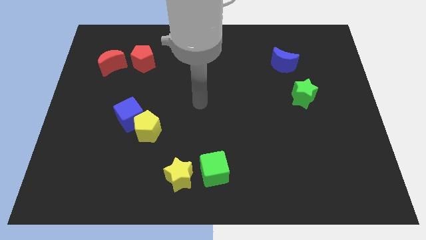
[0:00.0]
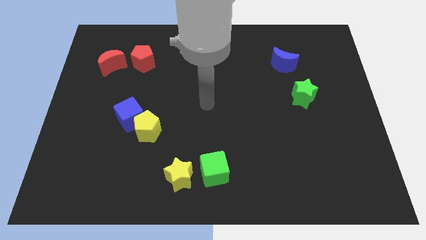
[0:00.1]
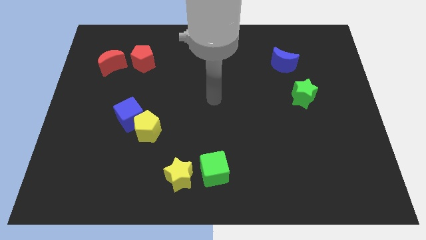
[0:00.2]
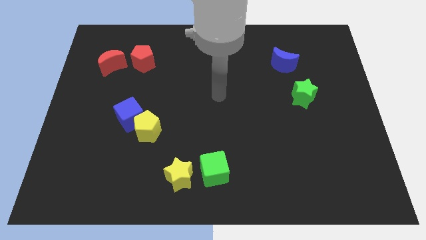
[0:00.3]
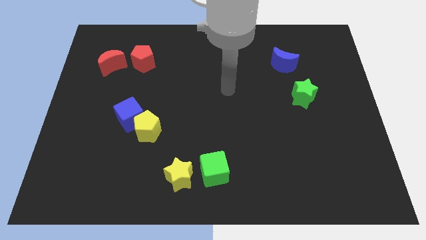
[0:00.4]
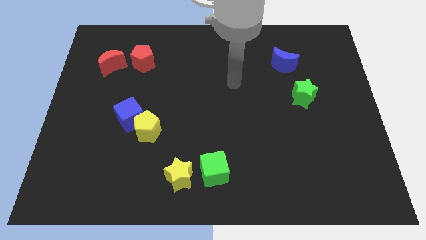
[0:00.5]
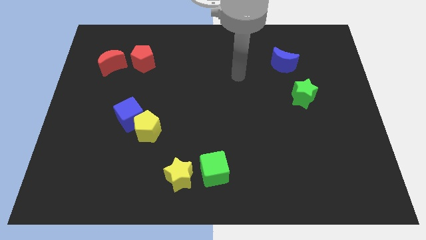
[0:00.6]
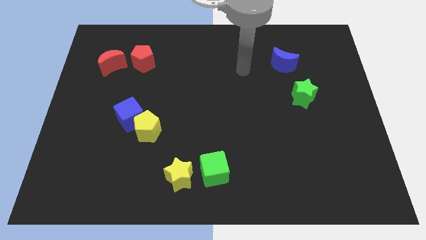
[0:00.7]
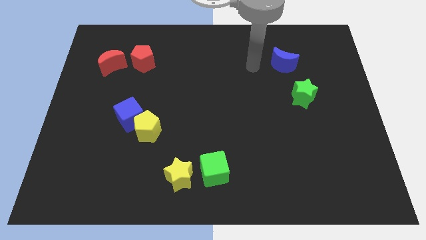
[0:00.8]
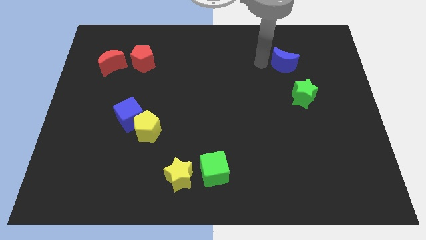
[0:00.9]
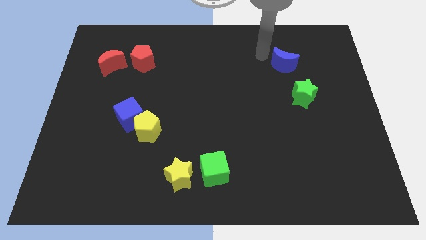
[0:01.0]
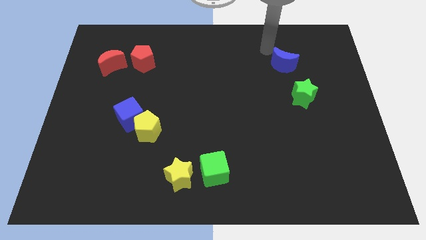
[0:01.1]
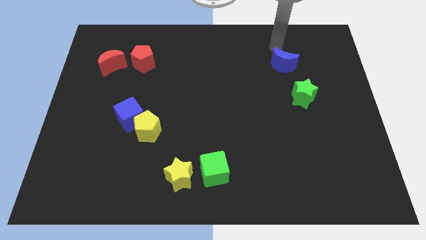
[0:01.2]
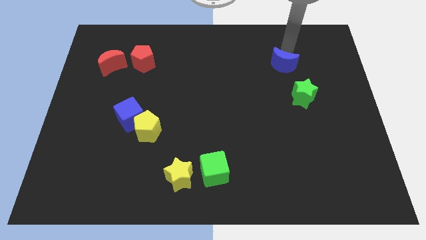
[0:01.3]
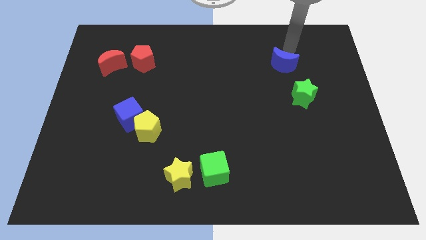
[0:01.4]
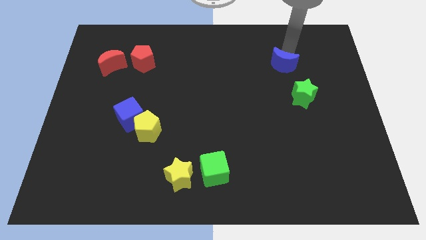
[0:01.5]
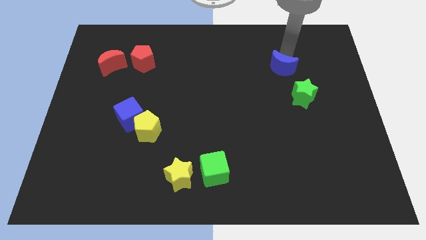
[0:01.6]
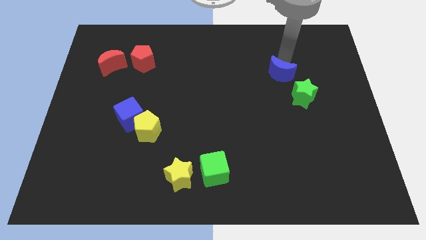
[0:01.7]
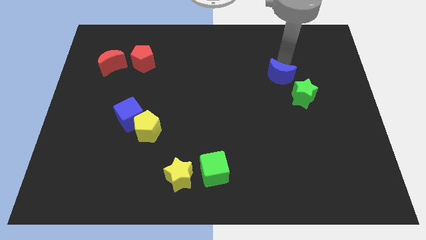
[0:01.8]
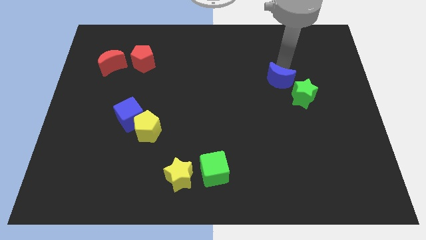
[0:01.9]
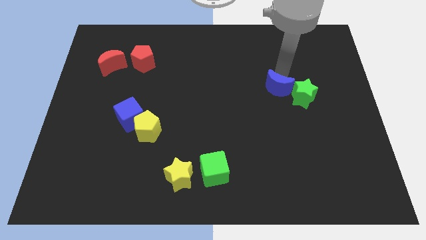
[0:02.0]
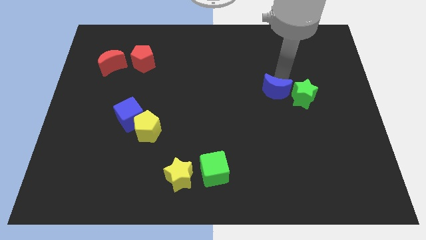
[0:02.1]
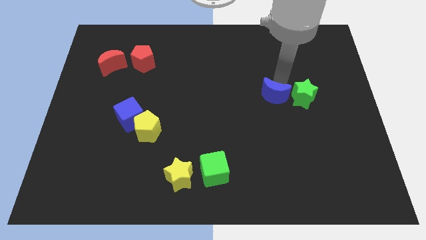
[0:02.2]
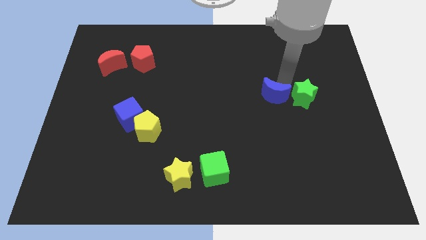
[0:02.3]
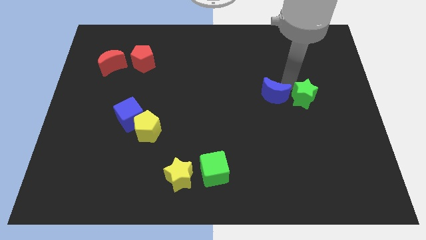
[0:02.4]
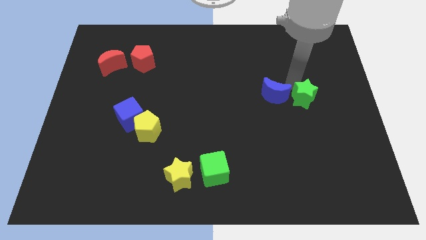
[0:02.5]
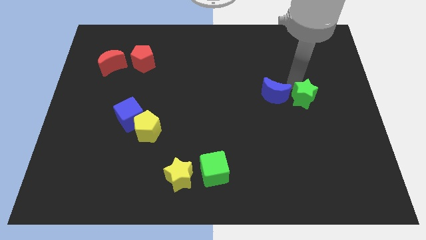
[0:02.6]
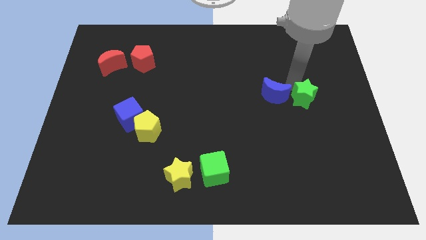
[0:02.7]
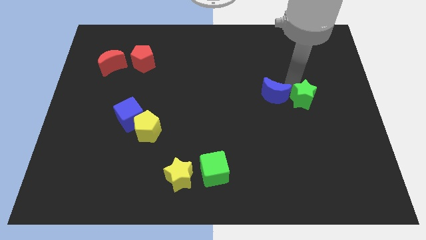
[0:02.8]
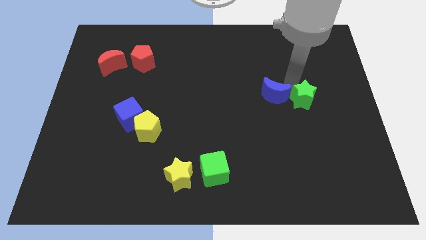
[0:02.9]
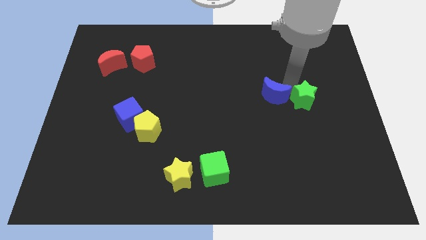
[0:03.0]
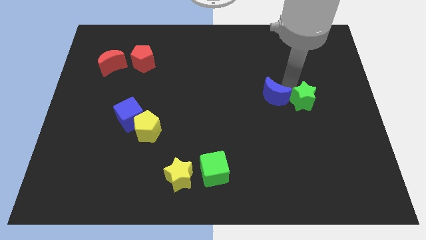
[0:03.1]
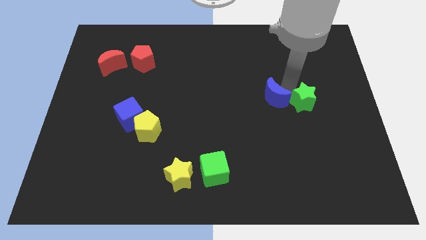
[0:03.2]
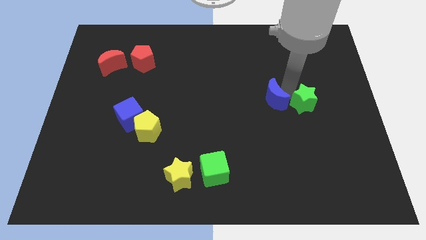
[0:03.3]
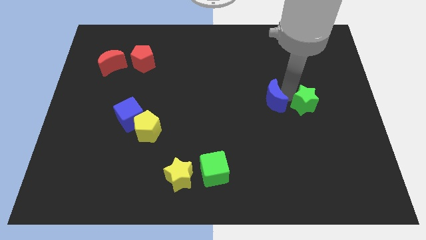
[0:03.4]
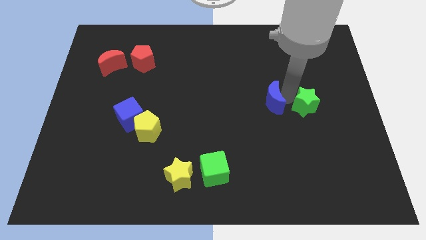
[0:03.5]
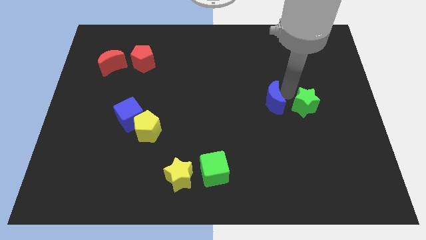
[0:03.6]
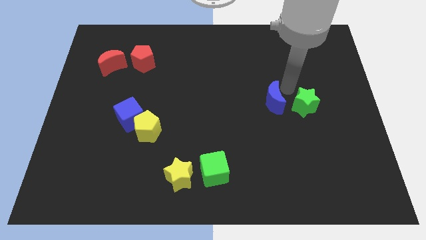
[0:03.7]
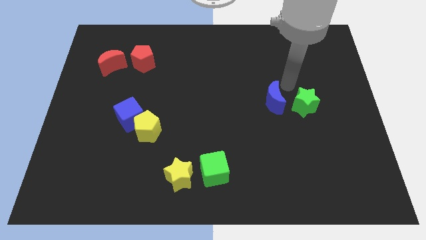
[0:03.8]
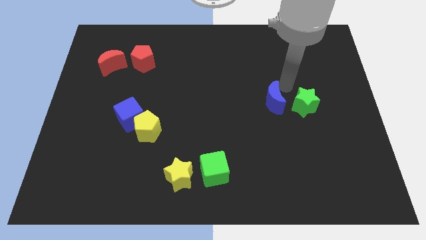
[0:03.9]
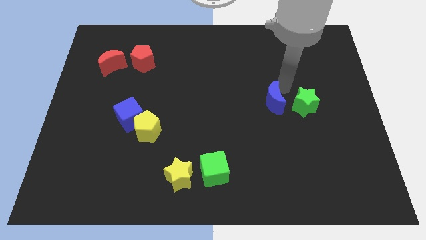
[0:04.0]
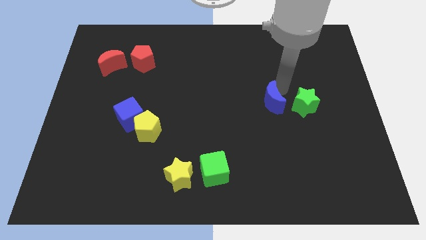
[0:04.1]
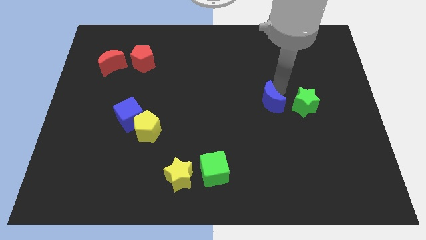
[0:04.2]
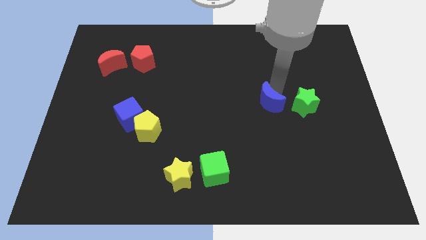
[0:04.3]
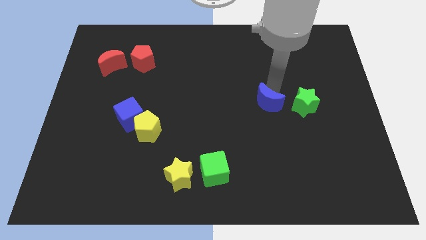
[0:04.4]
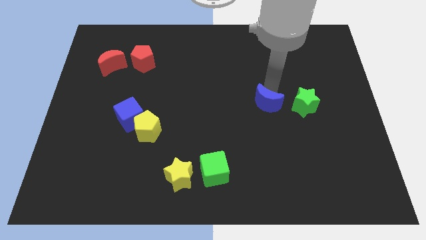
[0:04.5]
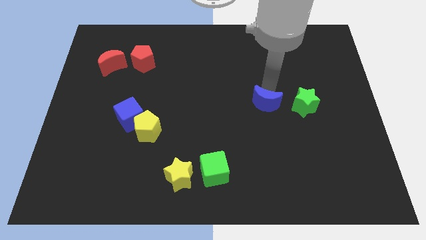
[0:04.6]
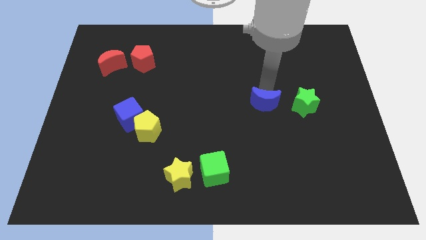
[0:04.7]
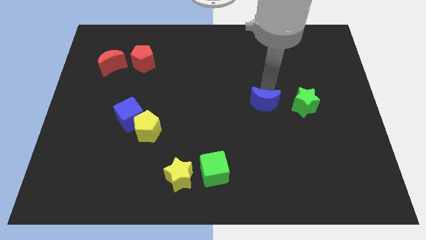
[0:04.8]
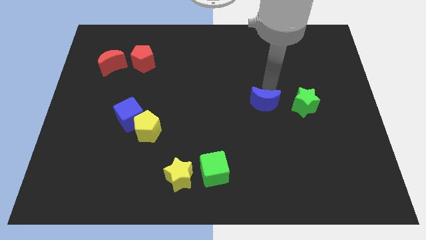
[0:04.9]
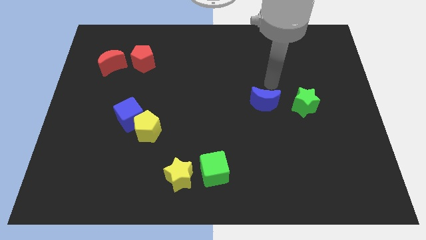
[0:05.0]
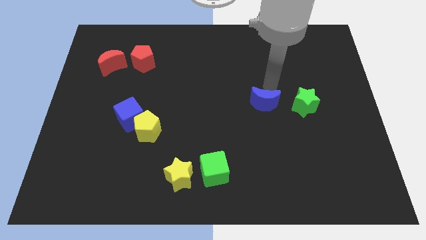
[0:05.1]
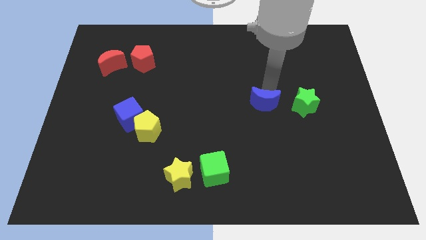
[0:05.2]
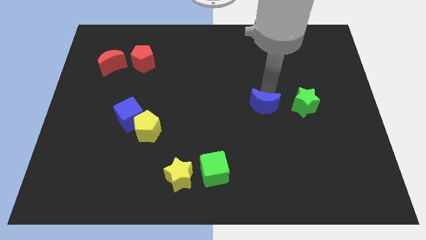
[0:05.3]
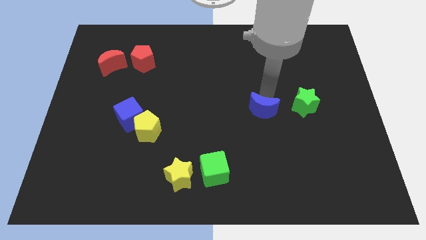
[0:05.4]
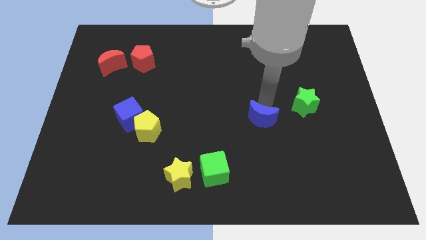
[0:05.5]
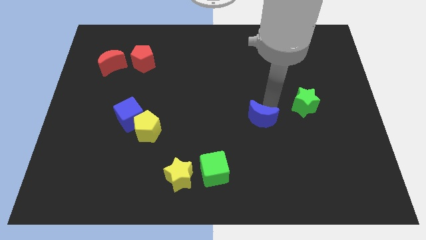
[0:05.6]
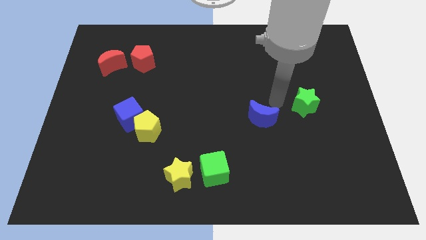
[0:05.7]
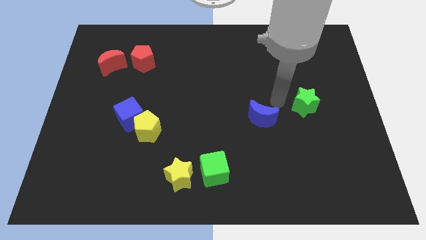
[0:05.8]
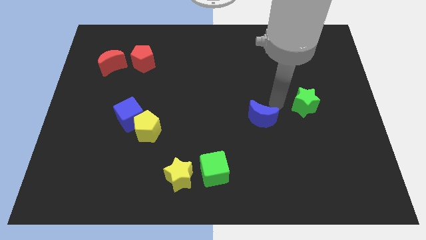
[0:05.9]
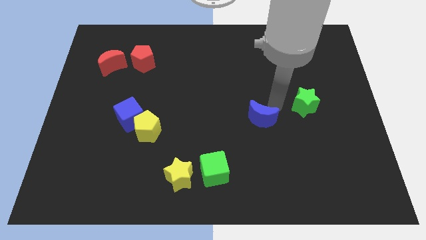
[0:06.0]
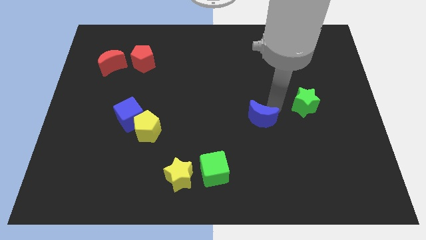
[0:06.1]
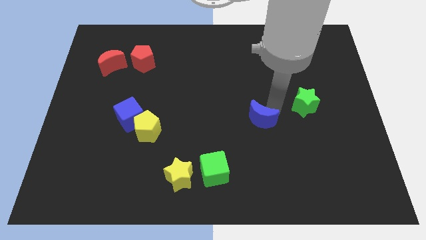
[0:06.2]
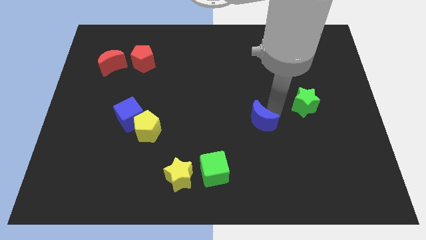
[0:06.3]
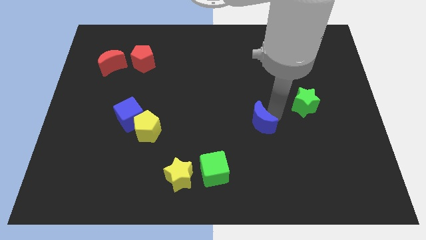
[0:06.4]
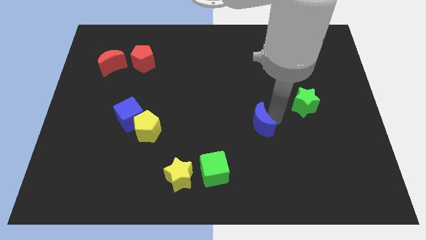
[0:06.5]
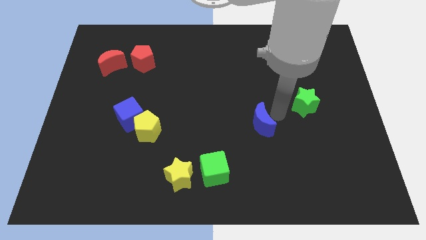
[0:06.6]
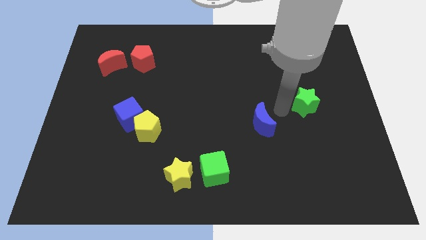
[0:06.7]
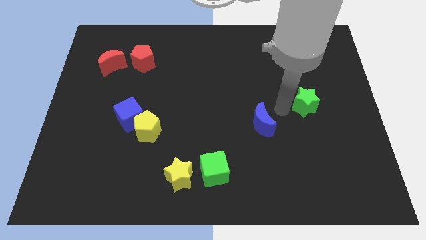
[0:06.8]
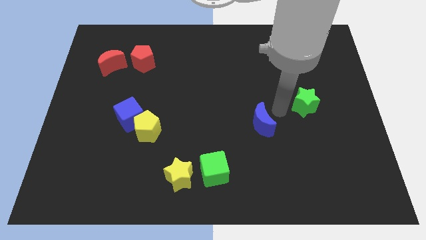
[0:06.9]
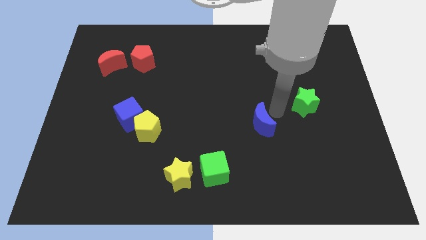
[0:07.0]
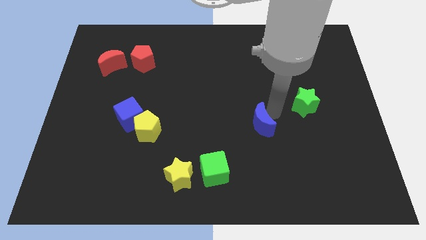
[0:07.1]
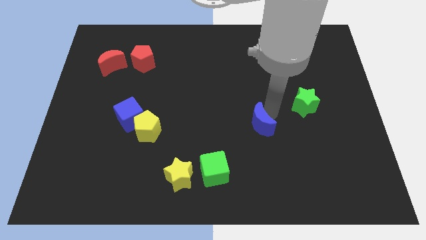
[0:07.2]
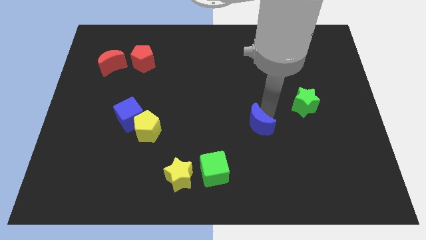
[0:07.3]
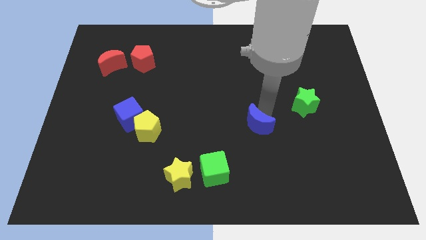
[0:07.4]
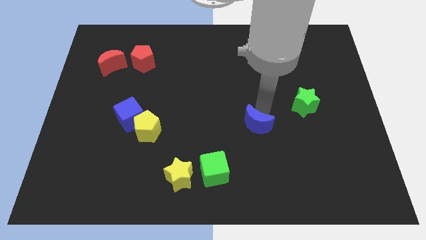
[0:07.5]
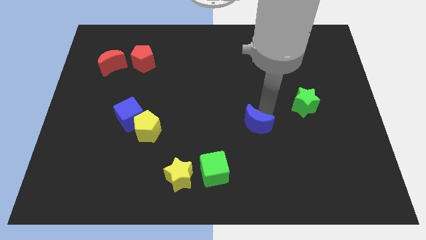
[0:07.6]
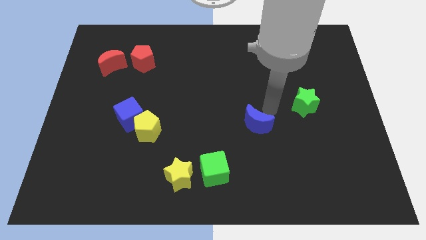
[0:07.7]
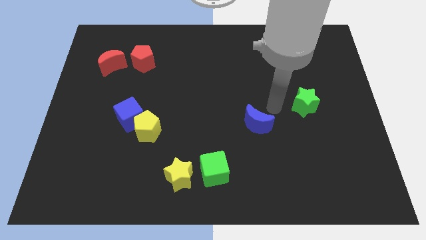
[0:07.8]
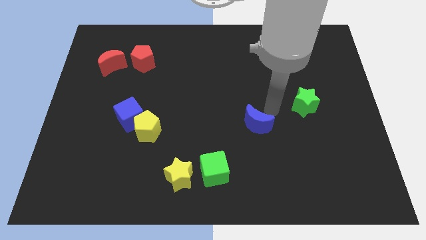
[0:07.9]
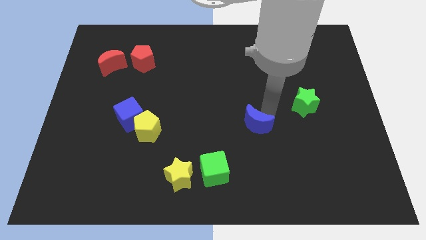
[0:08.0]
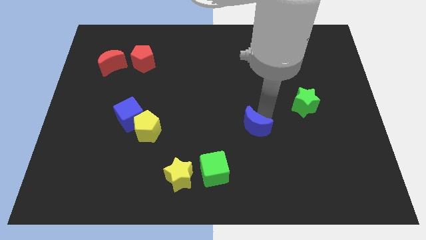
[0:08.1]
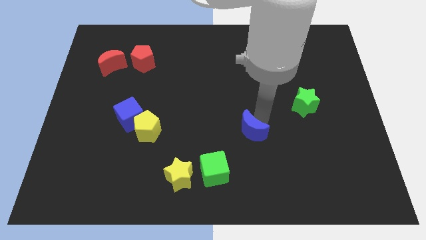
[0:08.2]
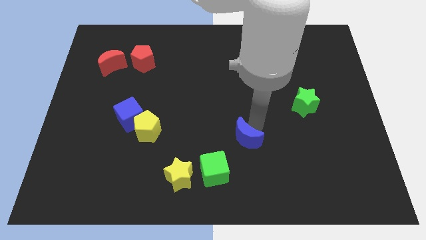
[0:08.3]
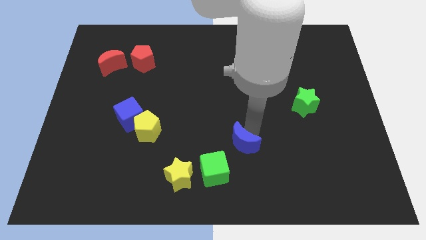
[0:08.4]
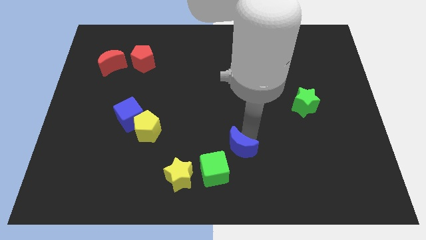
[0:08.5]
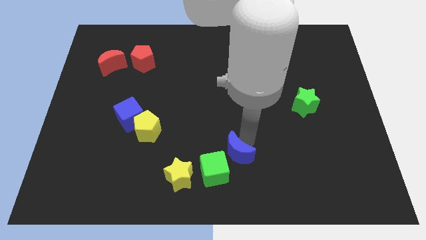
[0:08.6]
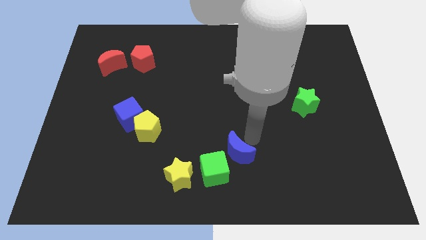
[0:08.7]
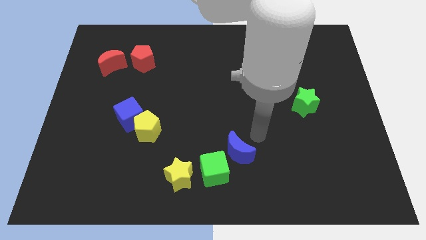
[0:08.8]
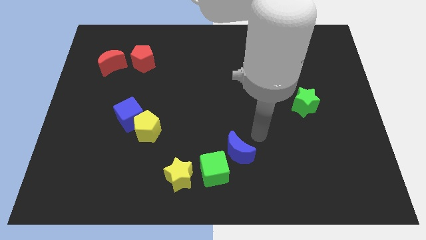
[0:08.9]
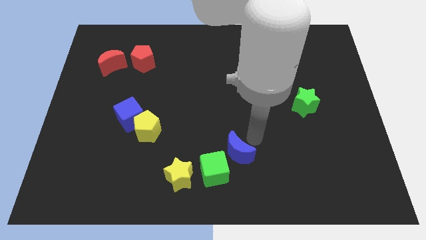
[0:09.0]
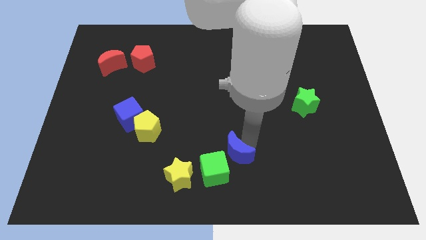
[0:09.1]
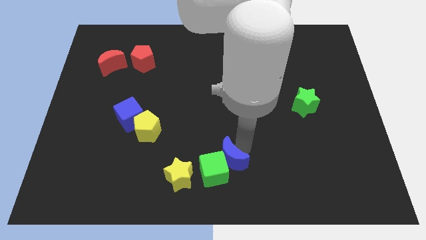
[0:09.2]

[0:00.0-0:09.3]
move the blue moon next to the green cube
